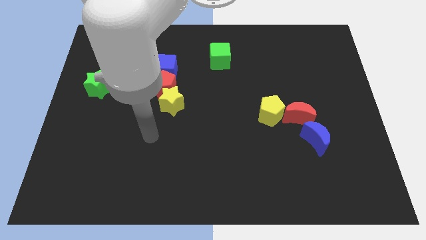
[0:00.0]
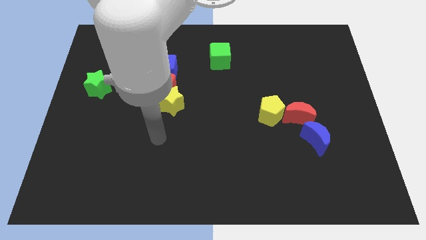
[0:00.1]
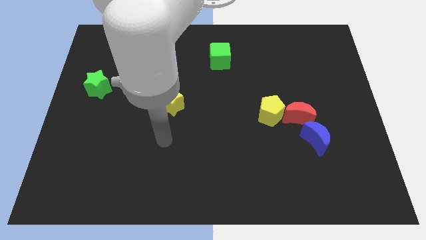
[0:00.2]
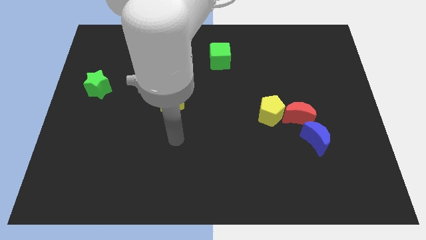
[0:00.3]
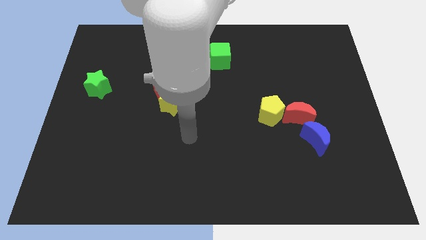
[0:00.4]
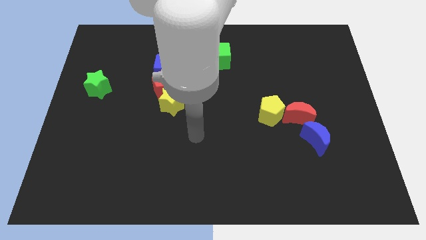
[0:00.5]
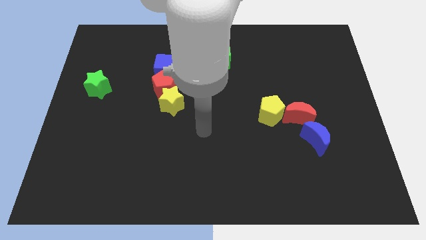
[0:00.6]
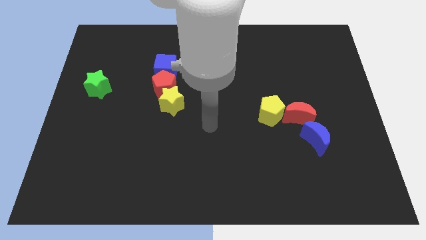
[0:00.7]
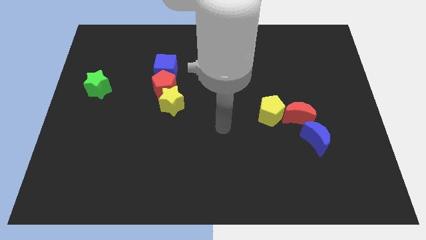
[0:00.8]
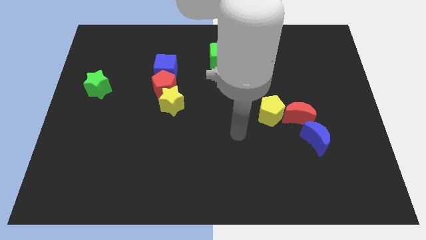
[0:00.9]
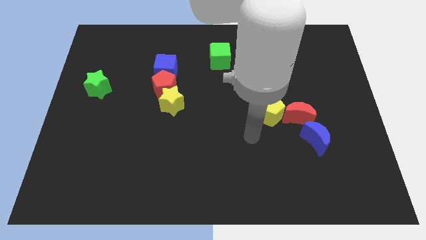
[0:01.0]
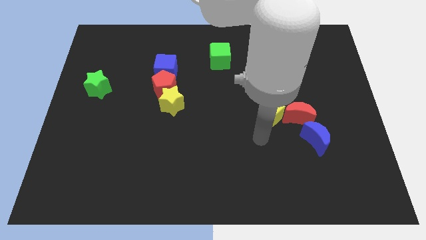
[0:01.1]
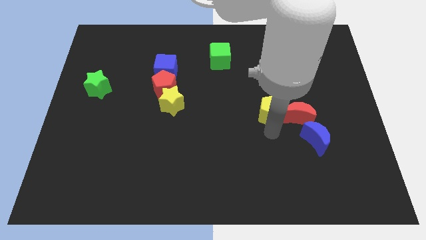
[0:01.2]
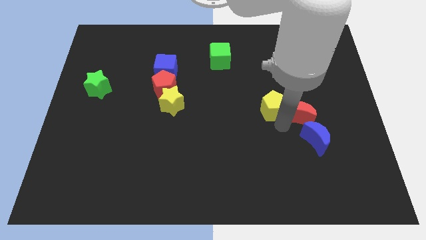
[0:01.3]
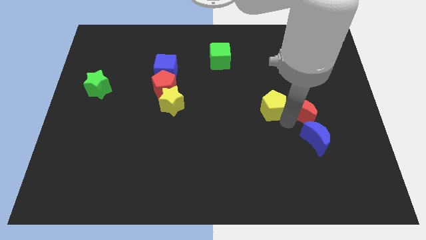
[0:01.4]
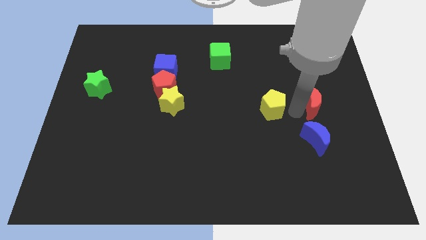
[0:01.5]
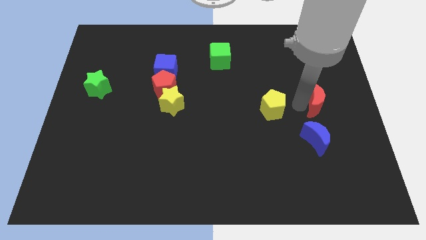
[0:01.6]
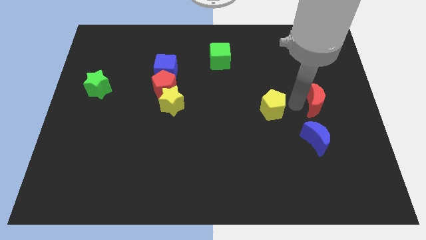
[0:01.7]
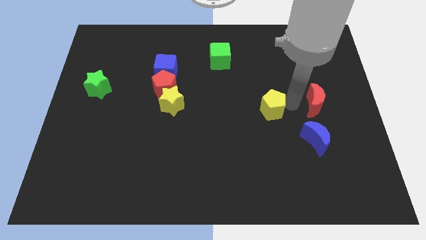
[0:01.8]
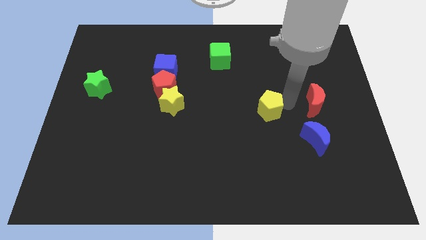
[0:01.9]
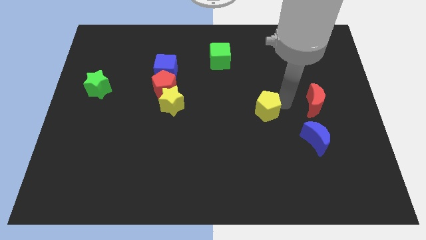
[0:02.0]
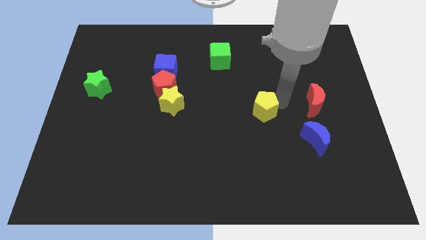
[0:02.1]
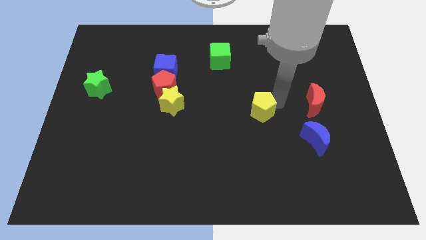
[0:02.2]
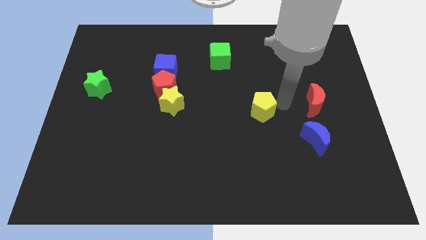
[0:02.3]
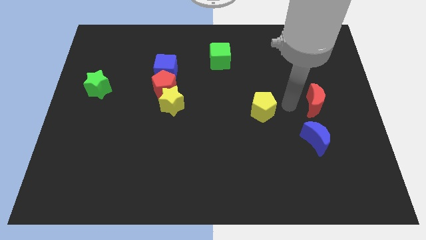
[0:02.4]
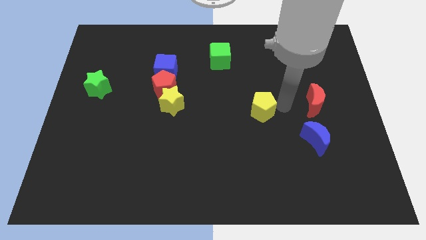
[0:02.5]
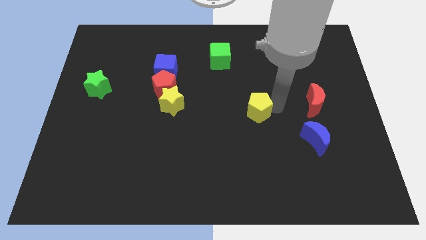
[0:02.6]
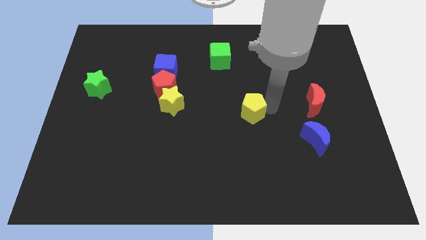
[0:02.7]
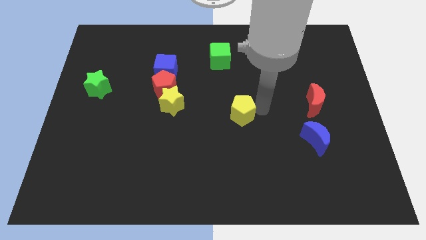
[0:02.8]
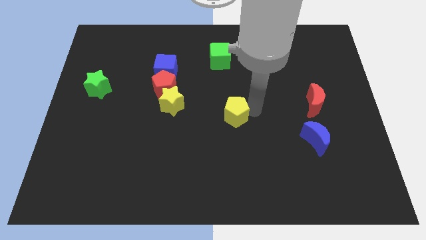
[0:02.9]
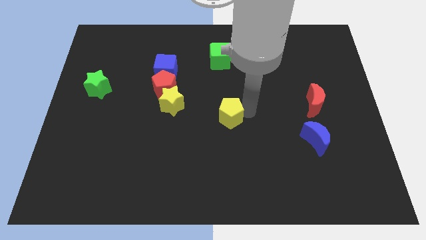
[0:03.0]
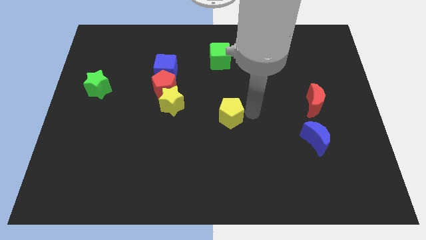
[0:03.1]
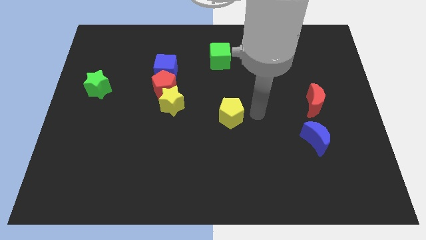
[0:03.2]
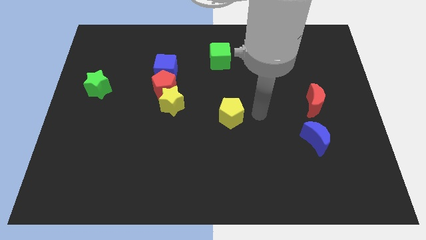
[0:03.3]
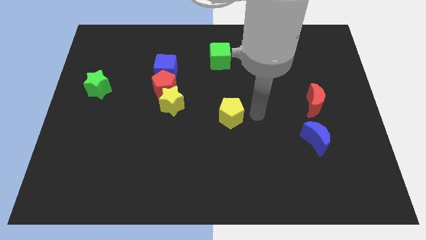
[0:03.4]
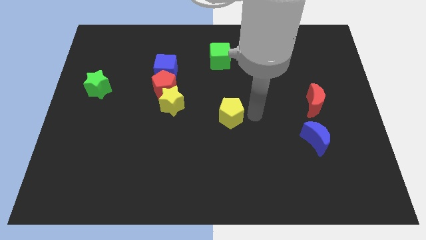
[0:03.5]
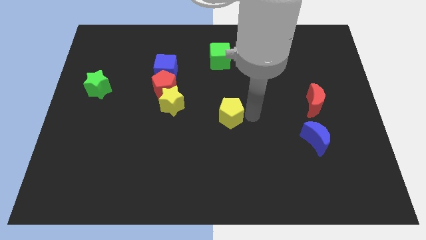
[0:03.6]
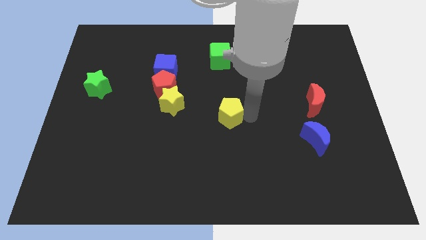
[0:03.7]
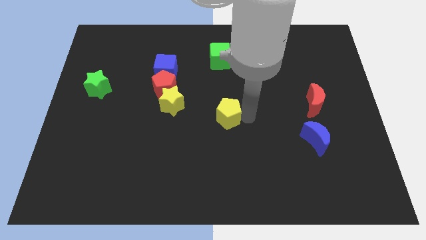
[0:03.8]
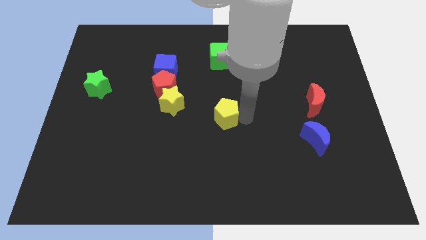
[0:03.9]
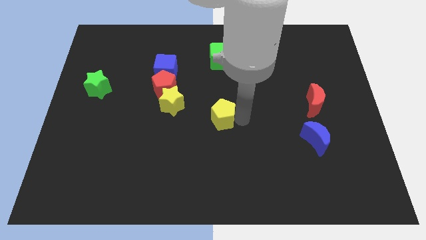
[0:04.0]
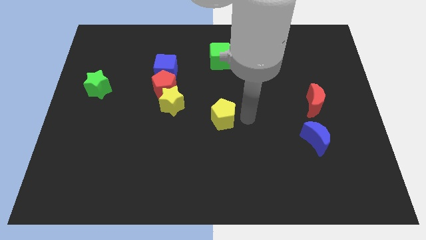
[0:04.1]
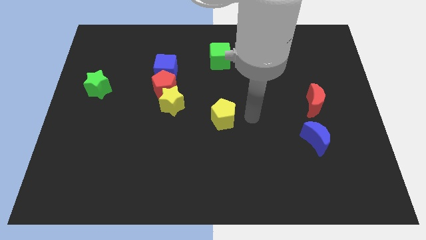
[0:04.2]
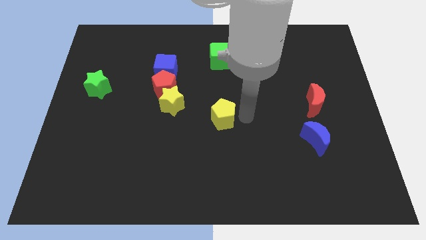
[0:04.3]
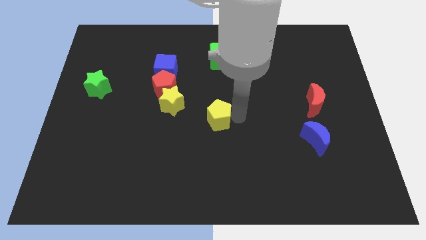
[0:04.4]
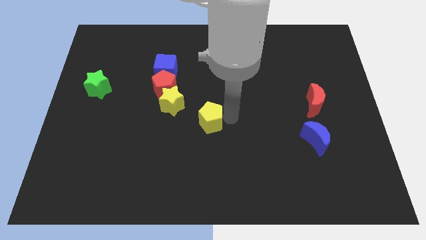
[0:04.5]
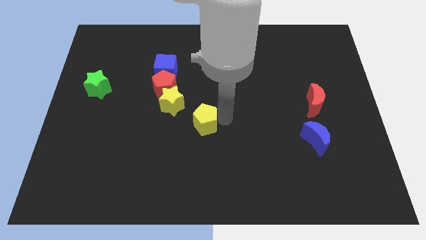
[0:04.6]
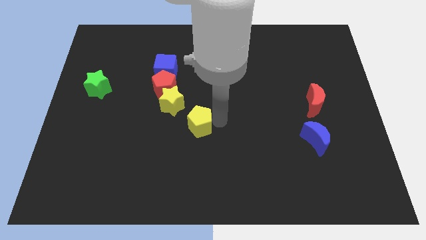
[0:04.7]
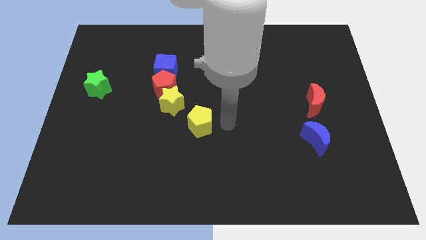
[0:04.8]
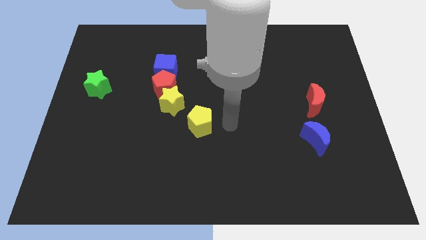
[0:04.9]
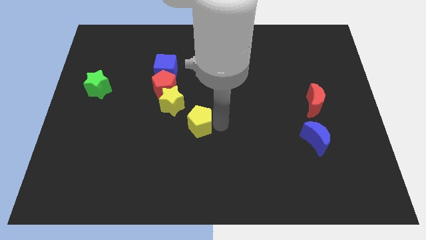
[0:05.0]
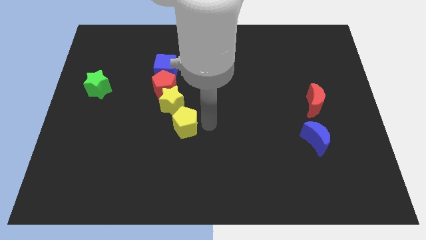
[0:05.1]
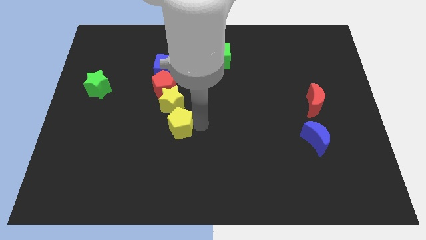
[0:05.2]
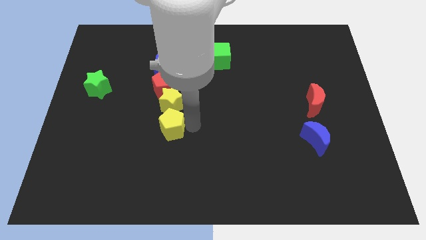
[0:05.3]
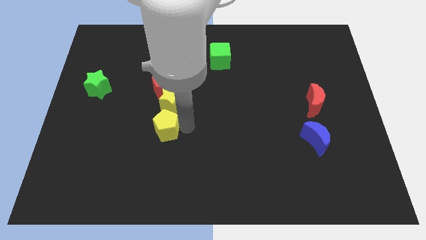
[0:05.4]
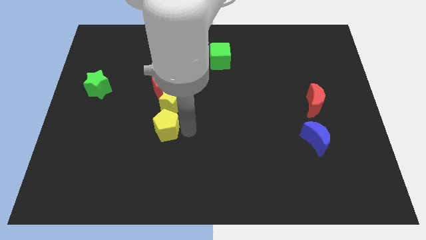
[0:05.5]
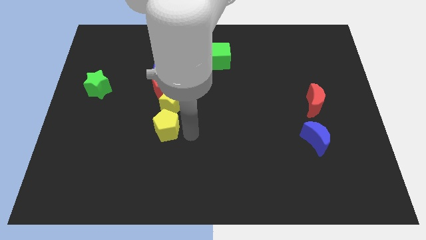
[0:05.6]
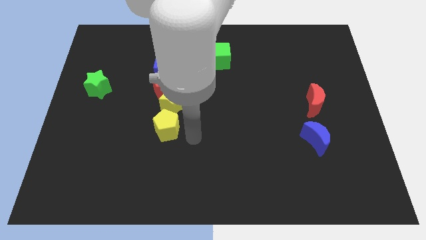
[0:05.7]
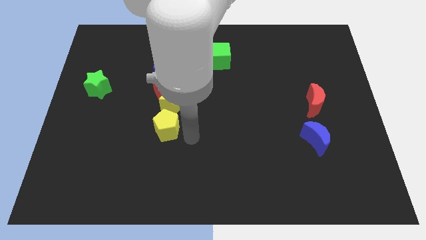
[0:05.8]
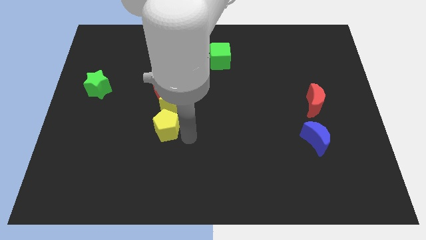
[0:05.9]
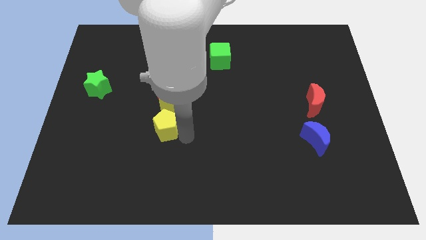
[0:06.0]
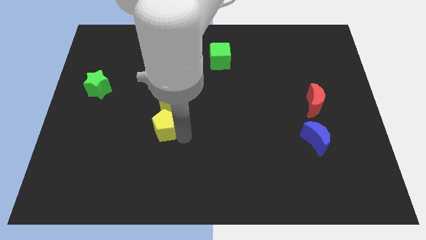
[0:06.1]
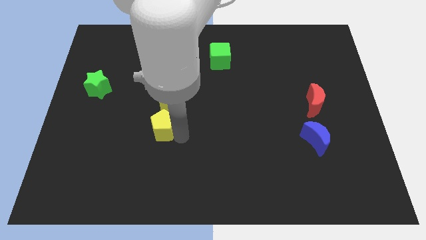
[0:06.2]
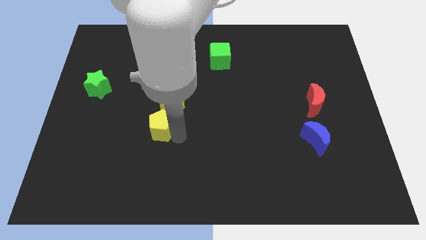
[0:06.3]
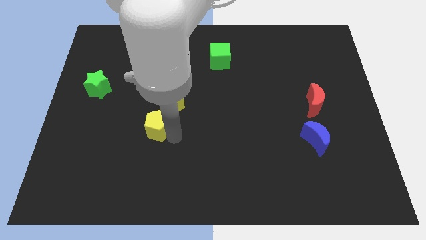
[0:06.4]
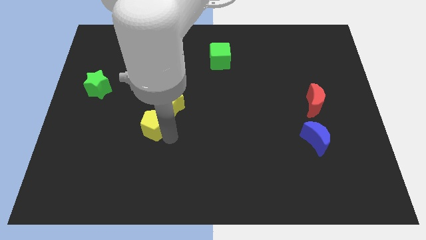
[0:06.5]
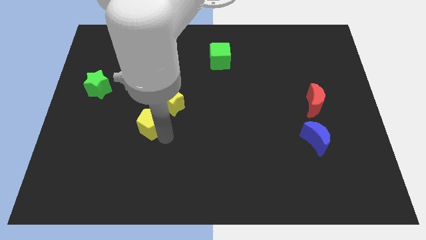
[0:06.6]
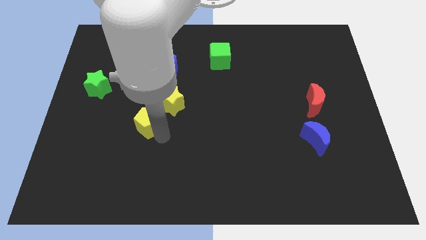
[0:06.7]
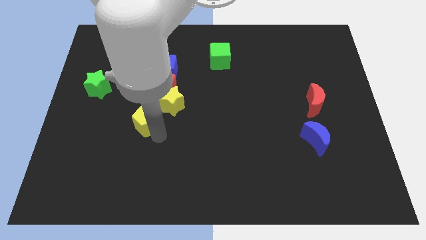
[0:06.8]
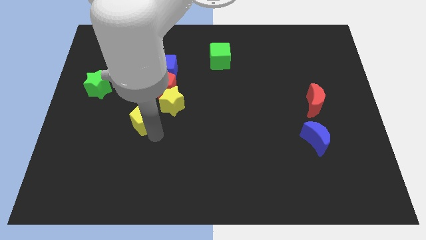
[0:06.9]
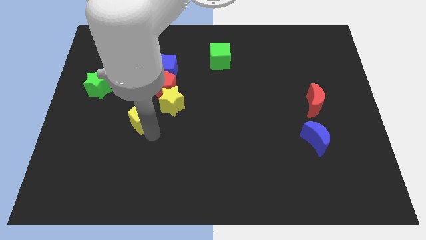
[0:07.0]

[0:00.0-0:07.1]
push the yellow pentagon to the bottom left side of the red pentagon
